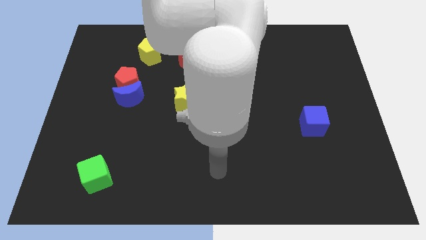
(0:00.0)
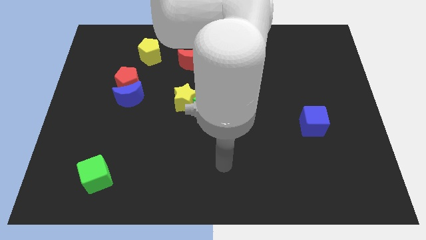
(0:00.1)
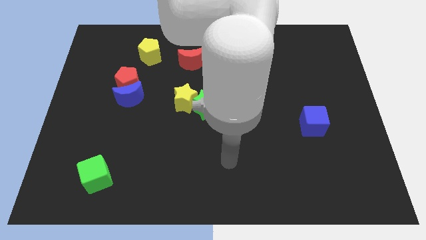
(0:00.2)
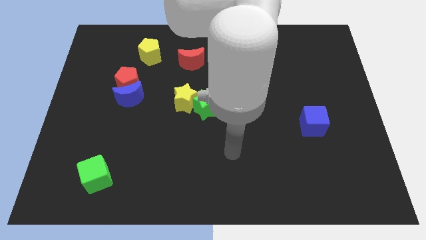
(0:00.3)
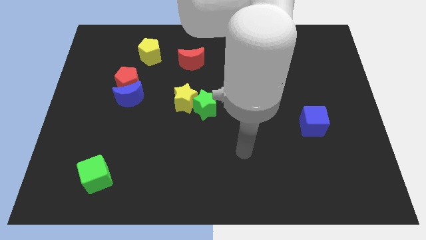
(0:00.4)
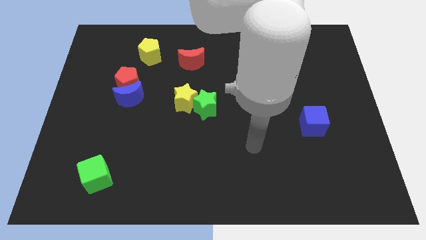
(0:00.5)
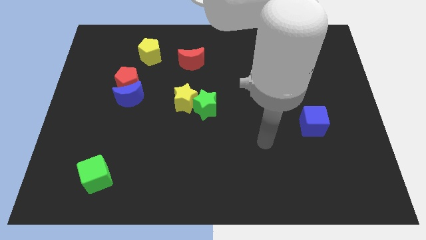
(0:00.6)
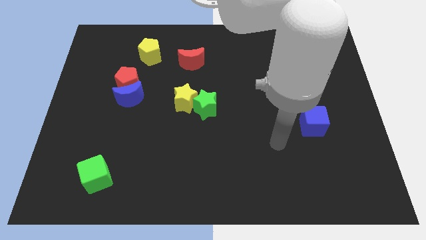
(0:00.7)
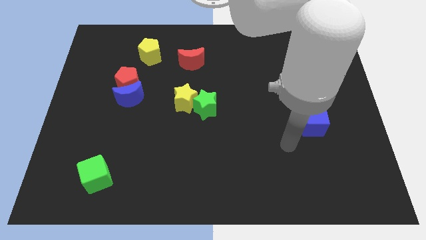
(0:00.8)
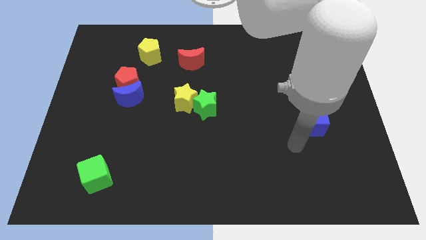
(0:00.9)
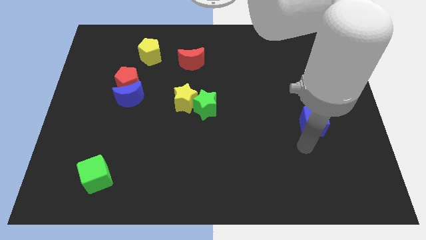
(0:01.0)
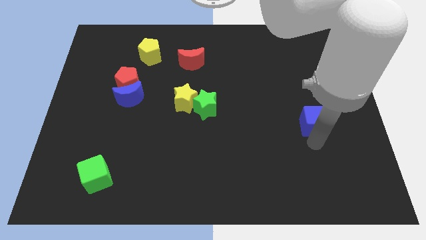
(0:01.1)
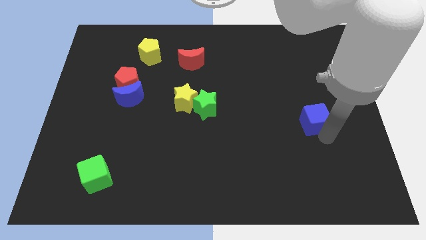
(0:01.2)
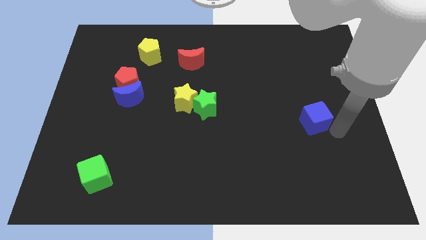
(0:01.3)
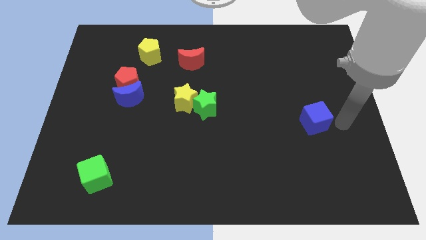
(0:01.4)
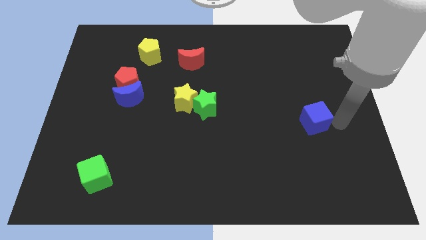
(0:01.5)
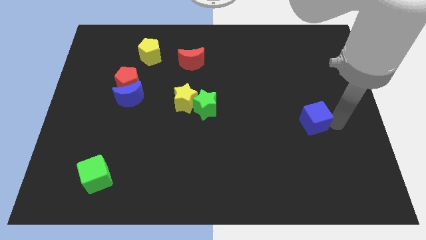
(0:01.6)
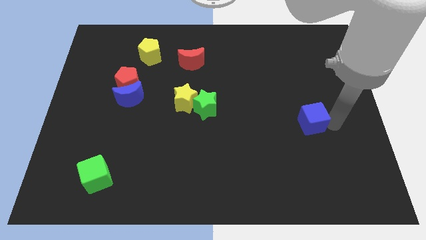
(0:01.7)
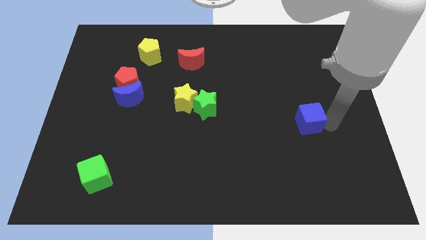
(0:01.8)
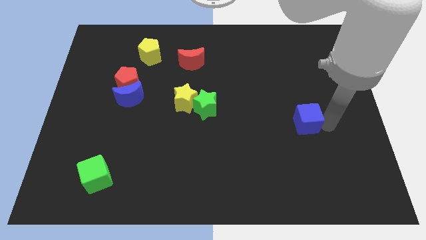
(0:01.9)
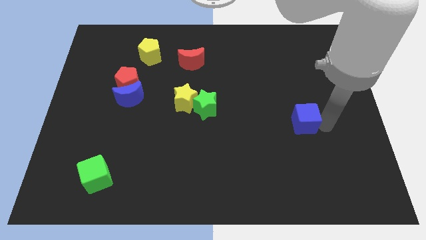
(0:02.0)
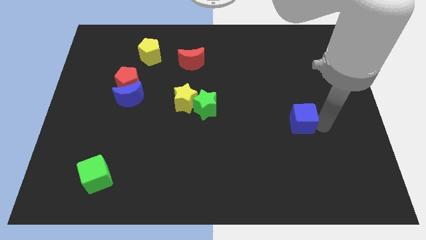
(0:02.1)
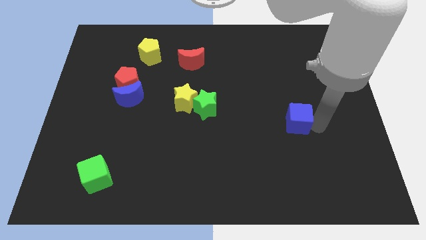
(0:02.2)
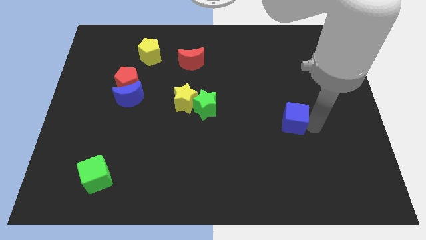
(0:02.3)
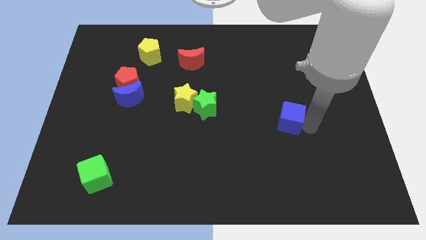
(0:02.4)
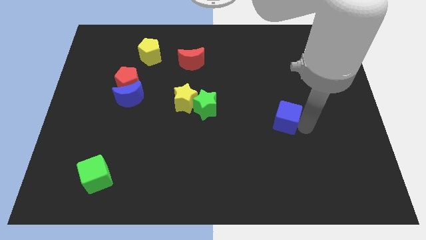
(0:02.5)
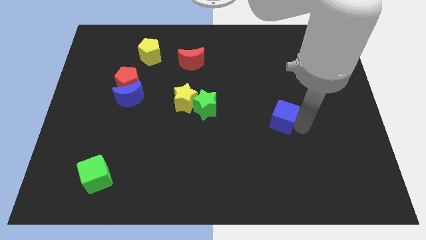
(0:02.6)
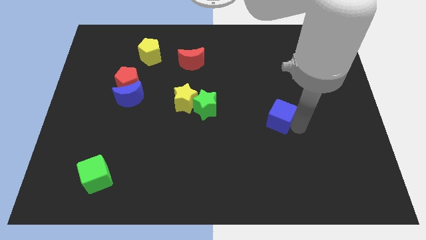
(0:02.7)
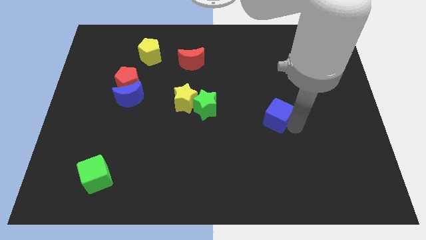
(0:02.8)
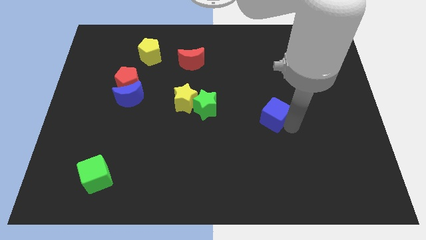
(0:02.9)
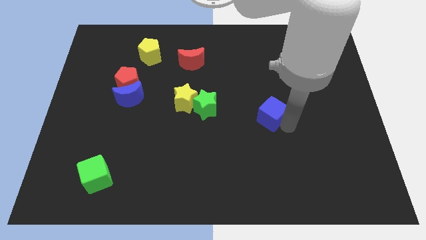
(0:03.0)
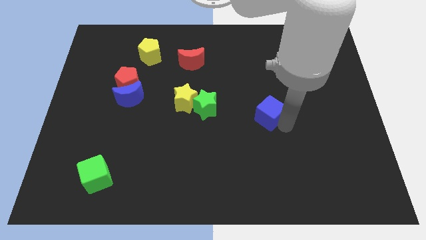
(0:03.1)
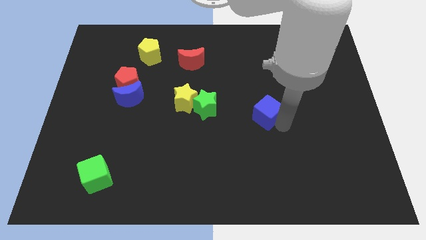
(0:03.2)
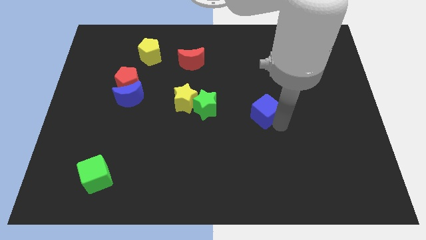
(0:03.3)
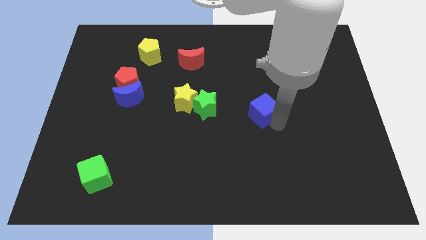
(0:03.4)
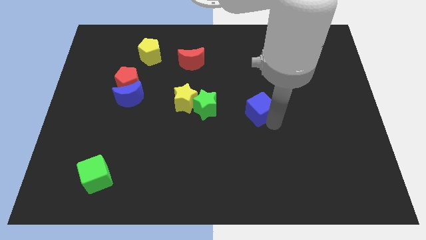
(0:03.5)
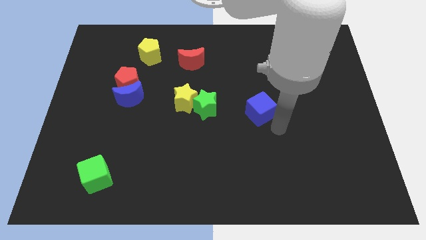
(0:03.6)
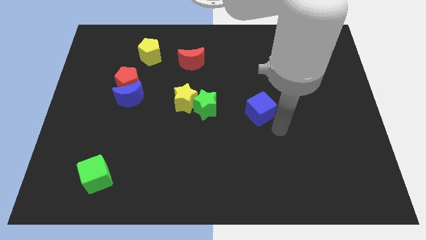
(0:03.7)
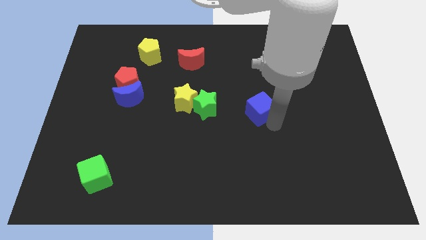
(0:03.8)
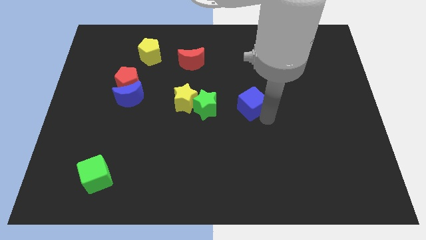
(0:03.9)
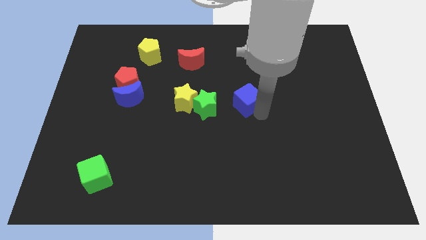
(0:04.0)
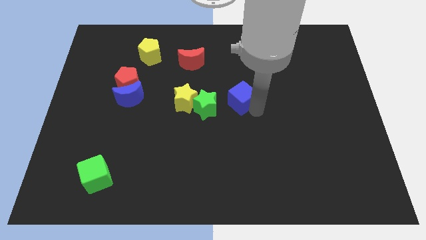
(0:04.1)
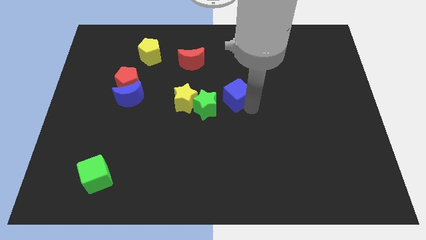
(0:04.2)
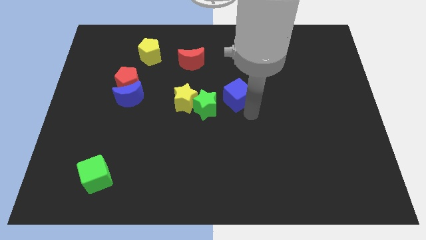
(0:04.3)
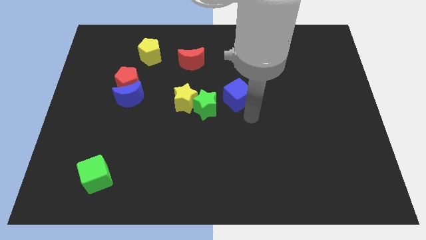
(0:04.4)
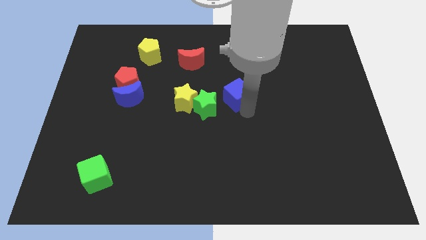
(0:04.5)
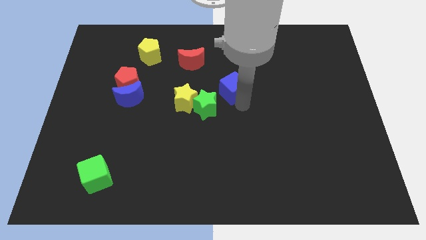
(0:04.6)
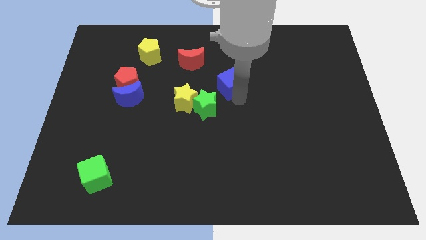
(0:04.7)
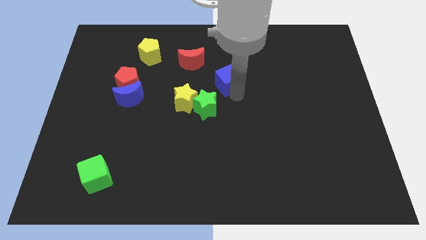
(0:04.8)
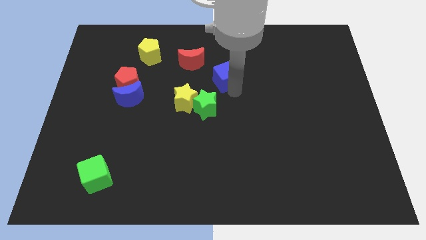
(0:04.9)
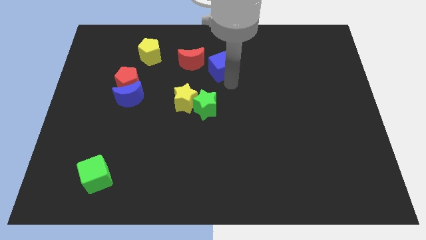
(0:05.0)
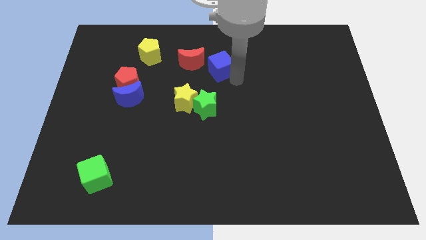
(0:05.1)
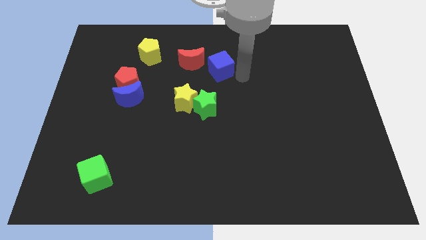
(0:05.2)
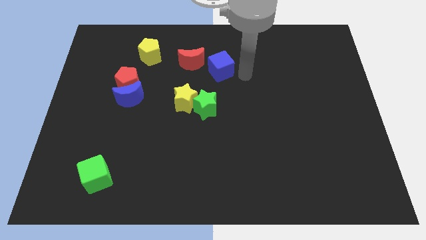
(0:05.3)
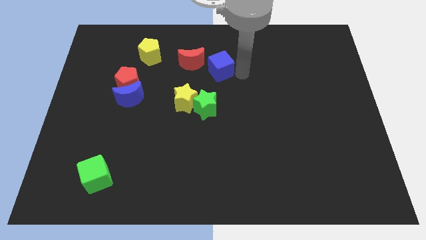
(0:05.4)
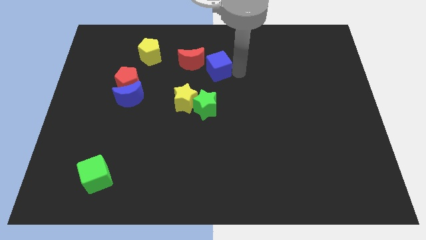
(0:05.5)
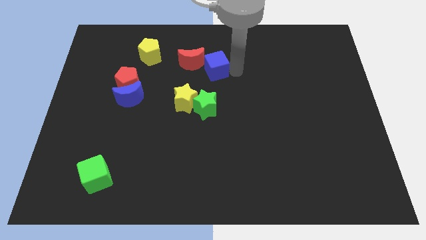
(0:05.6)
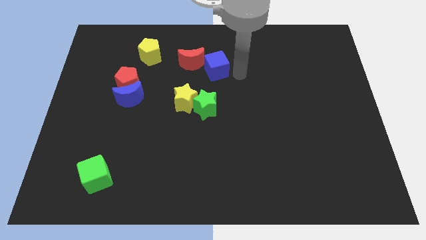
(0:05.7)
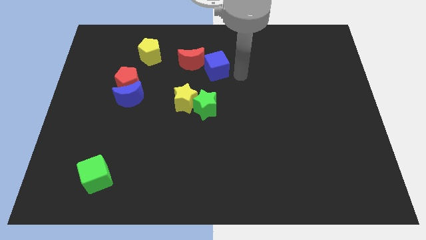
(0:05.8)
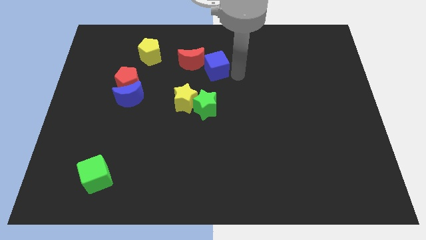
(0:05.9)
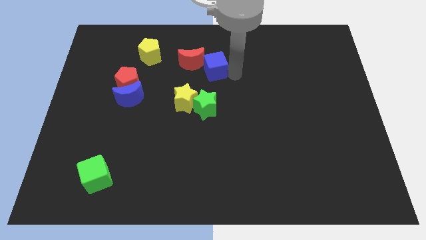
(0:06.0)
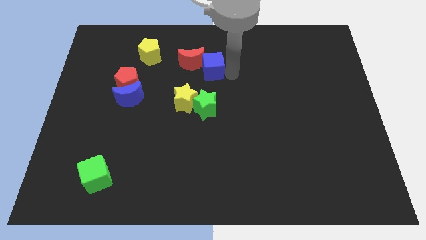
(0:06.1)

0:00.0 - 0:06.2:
push the blue cube close to the red moon

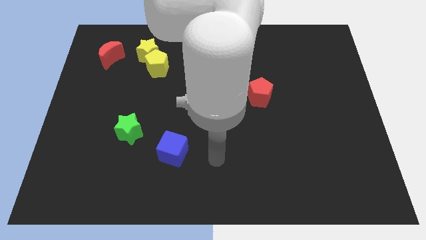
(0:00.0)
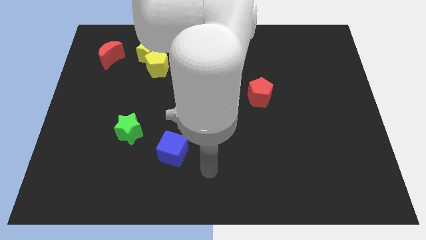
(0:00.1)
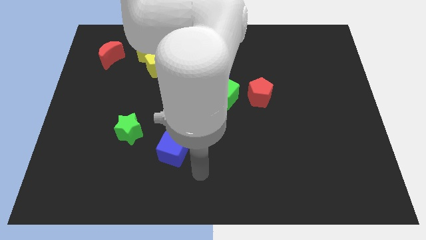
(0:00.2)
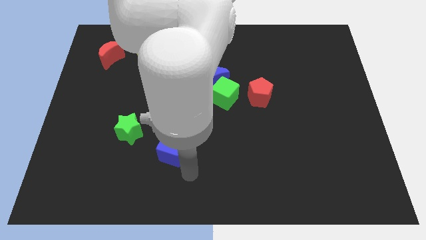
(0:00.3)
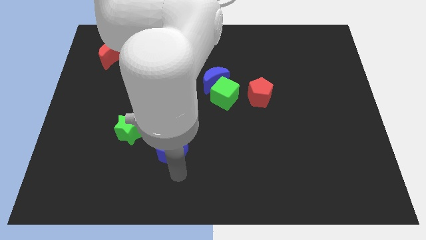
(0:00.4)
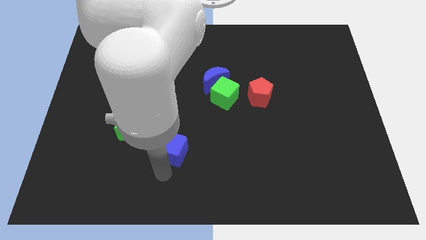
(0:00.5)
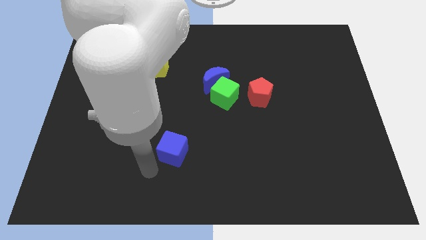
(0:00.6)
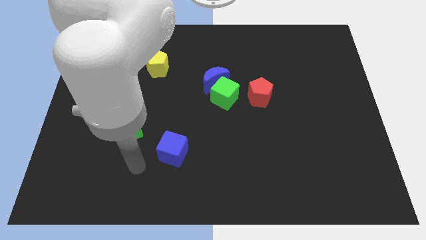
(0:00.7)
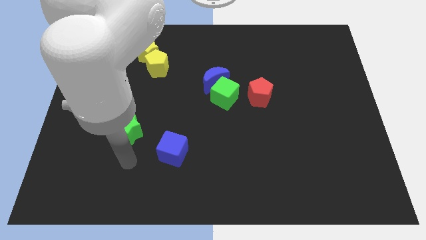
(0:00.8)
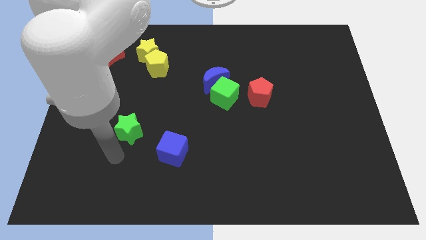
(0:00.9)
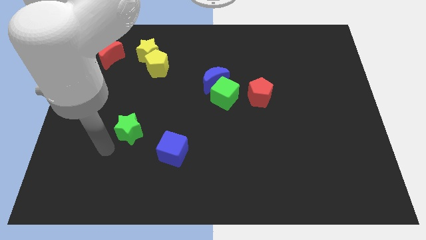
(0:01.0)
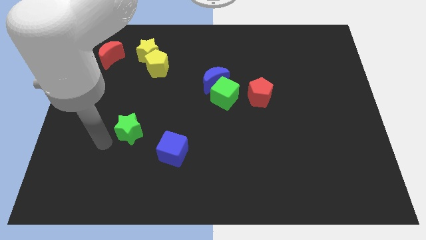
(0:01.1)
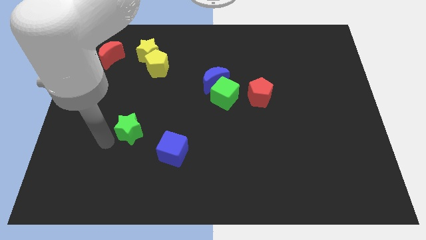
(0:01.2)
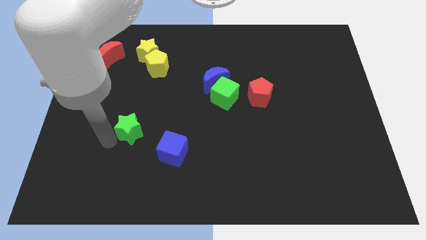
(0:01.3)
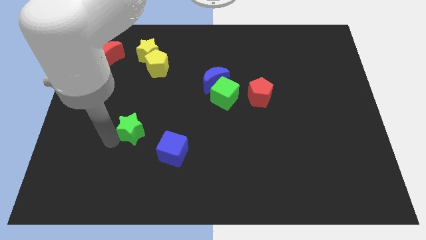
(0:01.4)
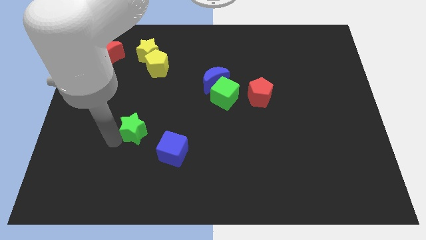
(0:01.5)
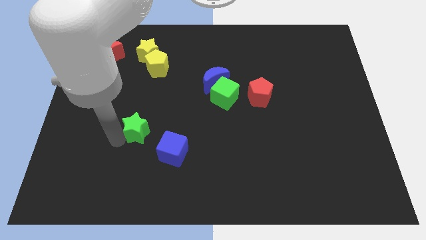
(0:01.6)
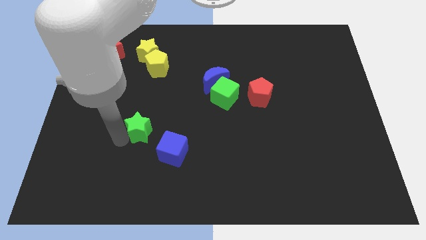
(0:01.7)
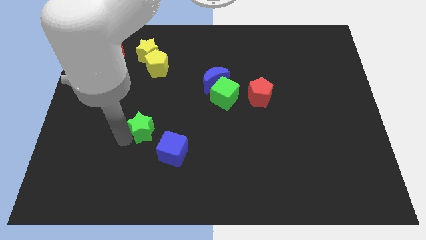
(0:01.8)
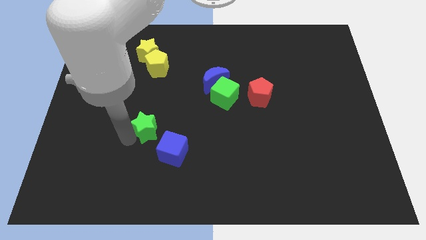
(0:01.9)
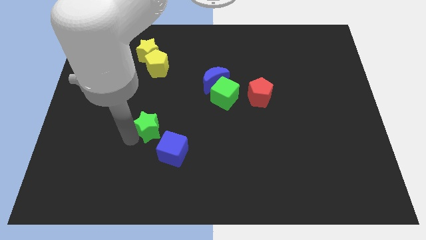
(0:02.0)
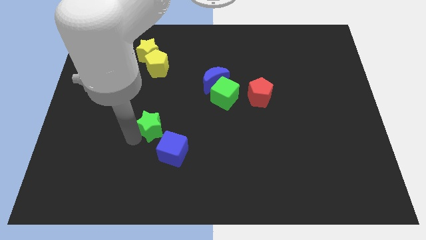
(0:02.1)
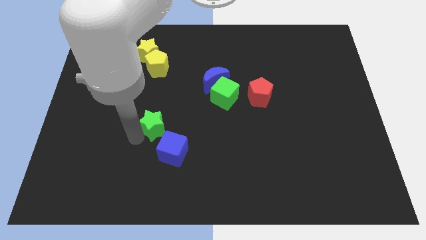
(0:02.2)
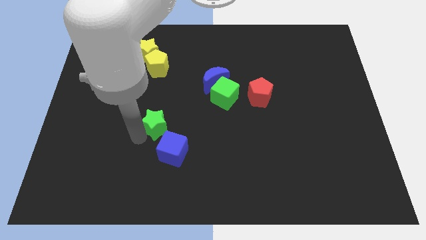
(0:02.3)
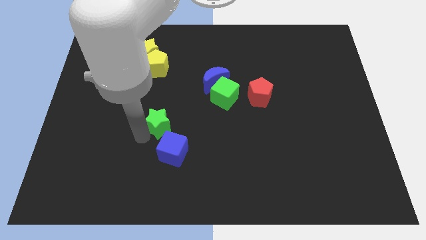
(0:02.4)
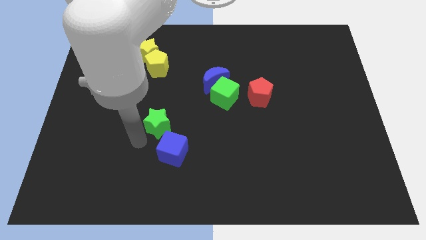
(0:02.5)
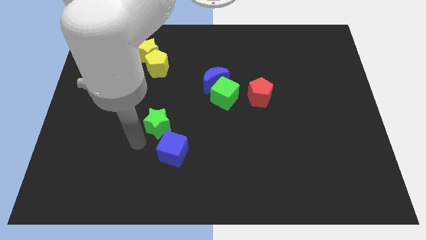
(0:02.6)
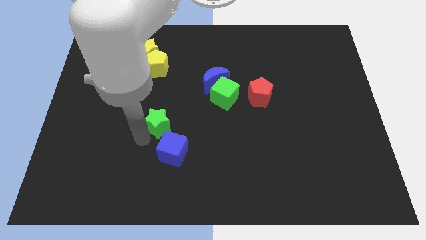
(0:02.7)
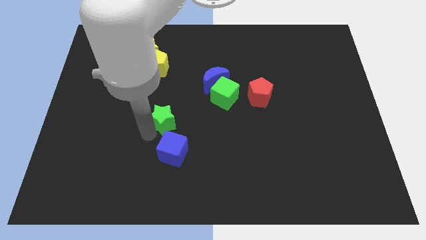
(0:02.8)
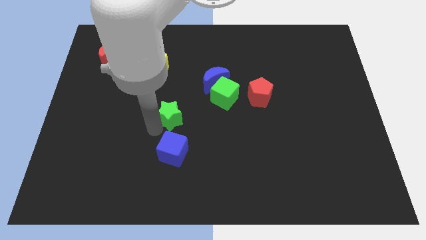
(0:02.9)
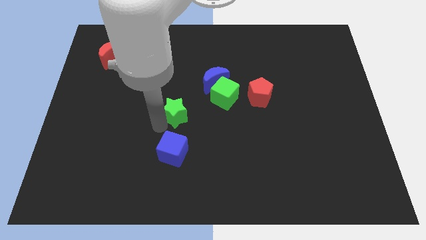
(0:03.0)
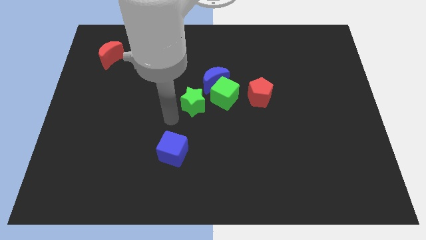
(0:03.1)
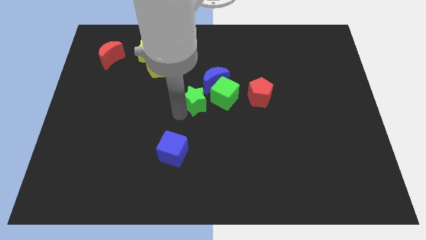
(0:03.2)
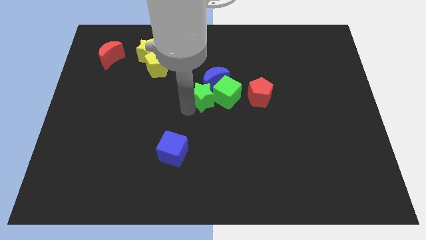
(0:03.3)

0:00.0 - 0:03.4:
slide the green star close to the blue moon
